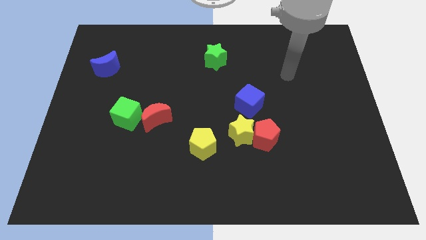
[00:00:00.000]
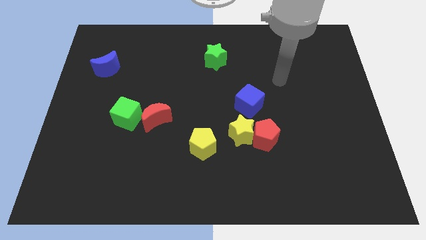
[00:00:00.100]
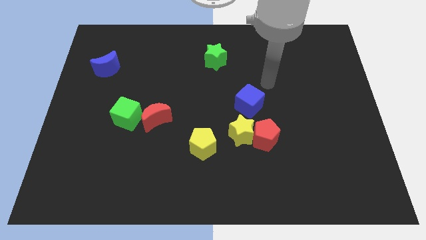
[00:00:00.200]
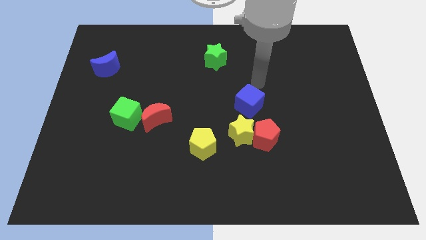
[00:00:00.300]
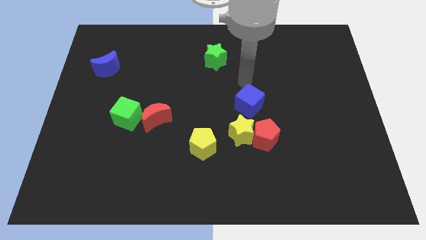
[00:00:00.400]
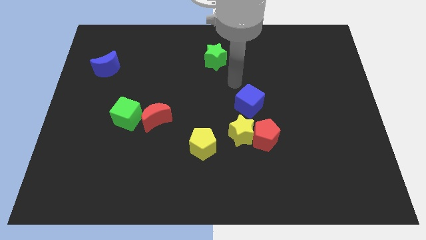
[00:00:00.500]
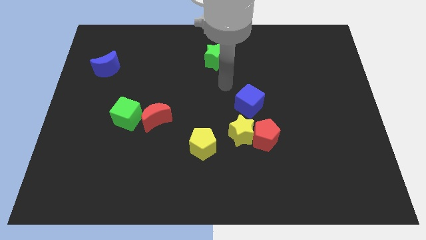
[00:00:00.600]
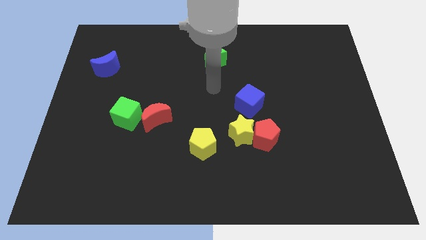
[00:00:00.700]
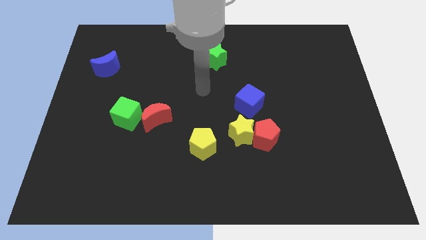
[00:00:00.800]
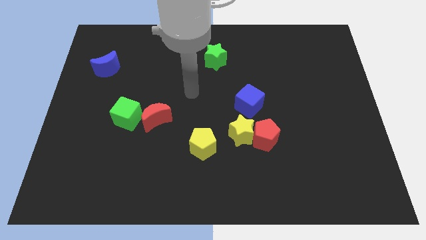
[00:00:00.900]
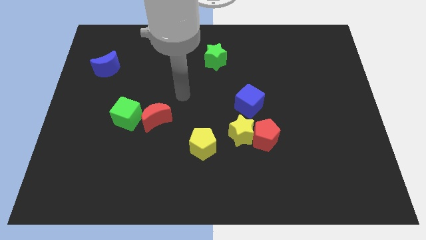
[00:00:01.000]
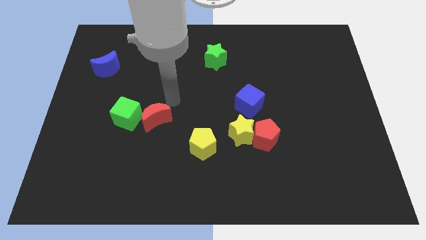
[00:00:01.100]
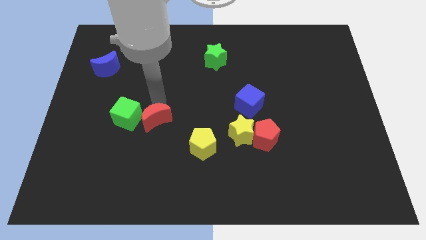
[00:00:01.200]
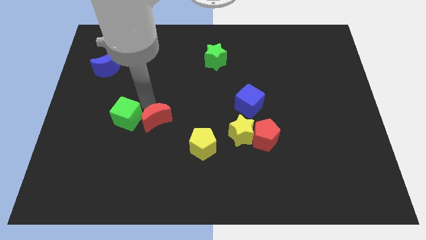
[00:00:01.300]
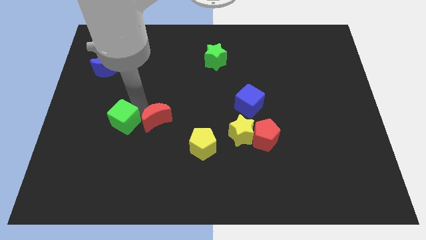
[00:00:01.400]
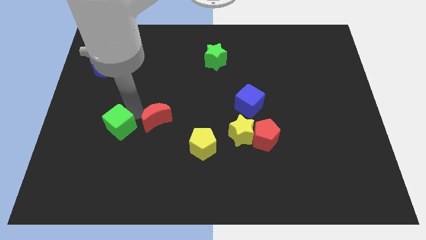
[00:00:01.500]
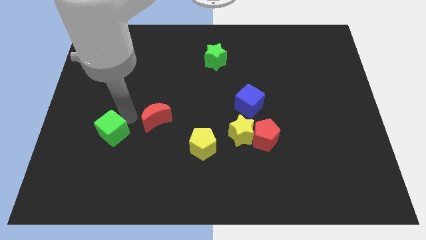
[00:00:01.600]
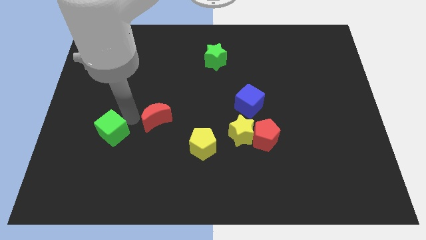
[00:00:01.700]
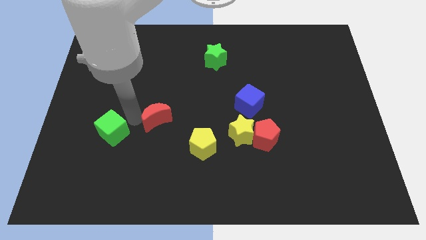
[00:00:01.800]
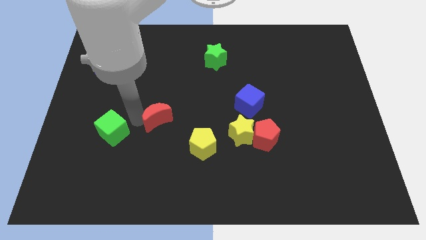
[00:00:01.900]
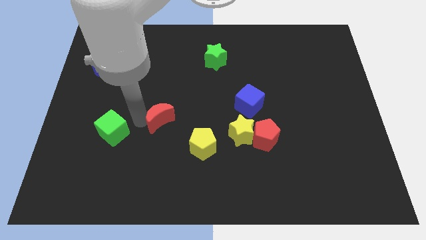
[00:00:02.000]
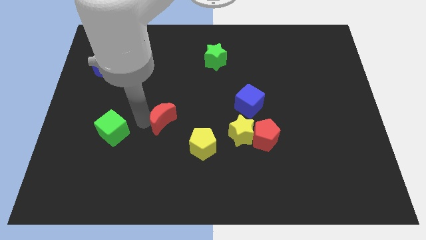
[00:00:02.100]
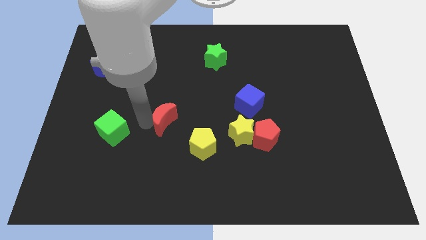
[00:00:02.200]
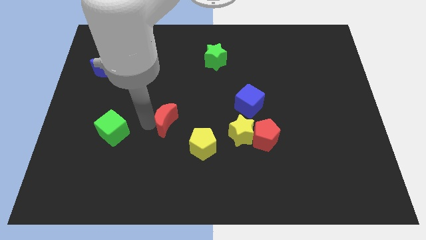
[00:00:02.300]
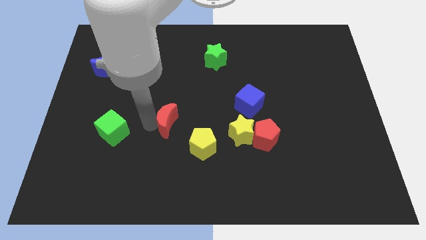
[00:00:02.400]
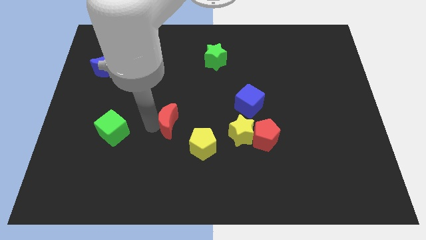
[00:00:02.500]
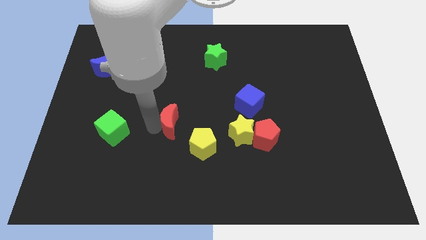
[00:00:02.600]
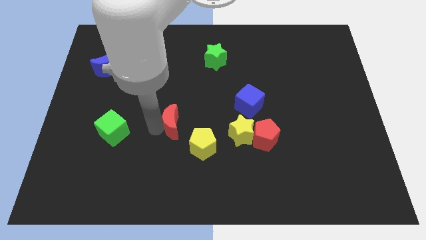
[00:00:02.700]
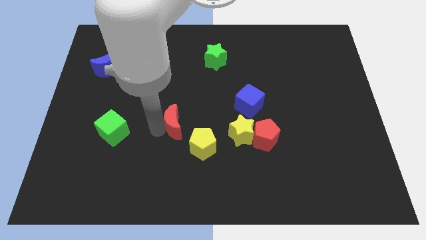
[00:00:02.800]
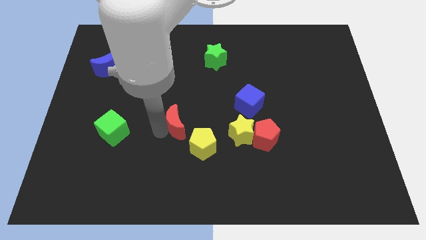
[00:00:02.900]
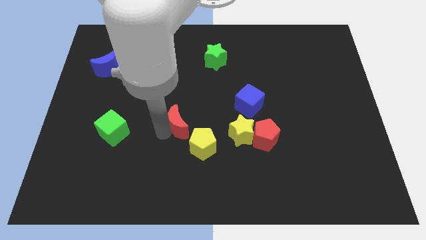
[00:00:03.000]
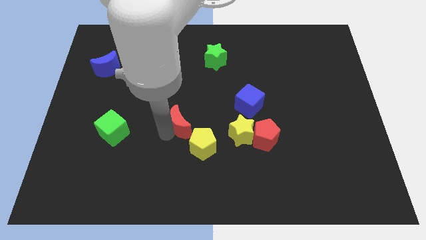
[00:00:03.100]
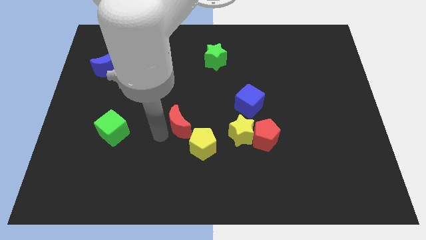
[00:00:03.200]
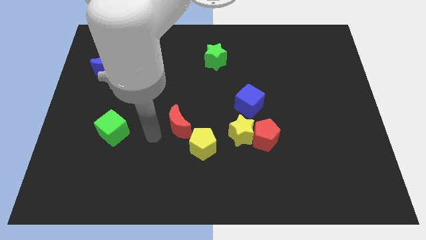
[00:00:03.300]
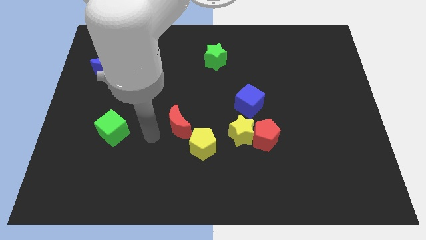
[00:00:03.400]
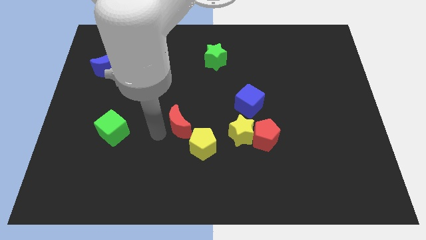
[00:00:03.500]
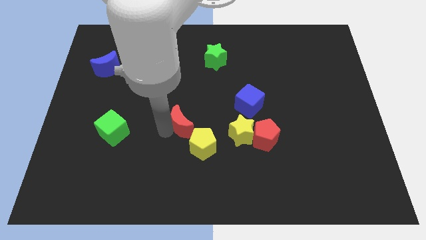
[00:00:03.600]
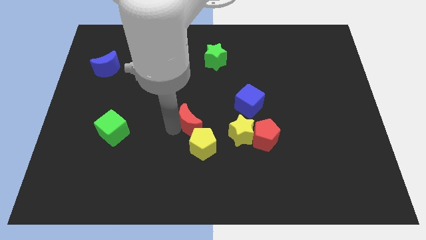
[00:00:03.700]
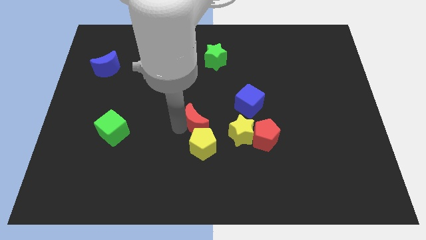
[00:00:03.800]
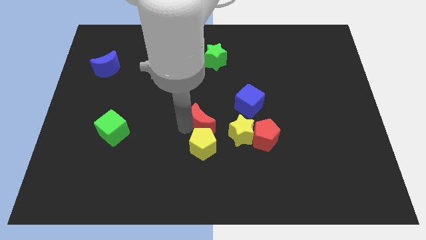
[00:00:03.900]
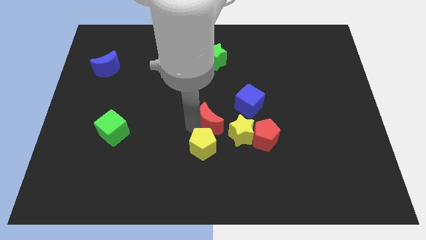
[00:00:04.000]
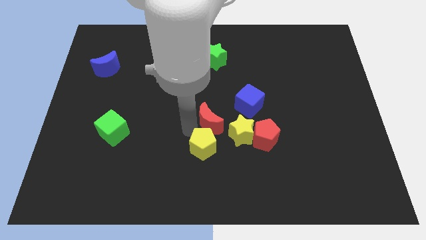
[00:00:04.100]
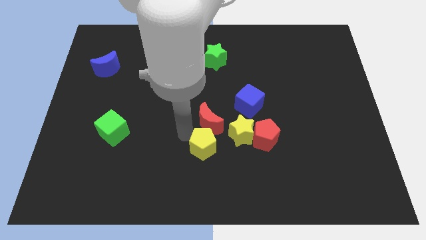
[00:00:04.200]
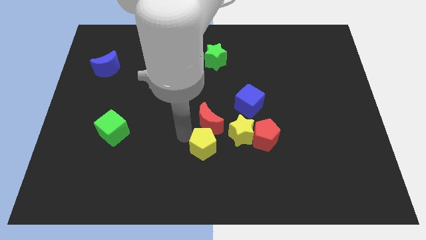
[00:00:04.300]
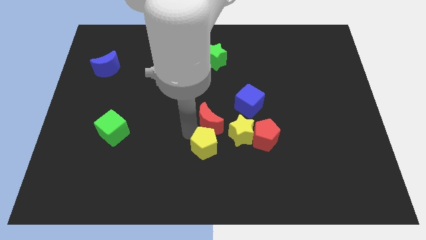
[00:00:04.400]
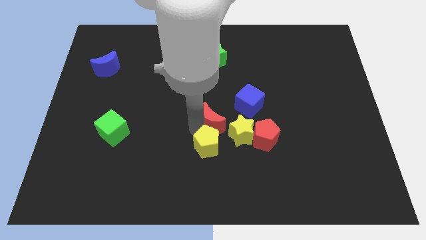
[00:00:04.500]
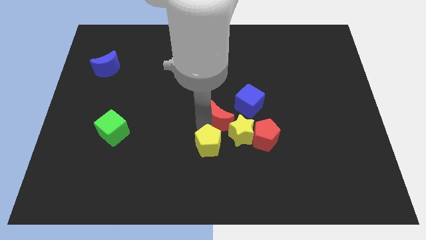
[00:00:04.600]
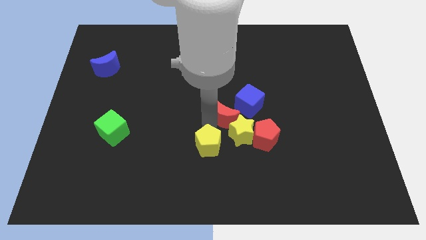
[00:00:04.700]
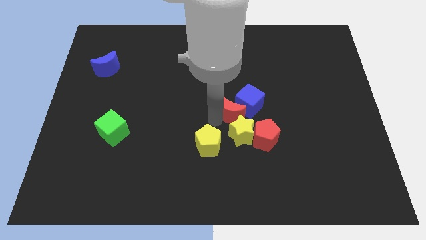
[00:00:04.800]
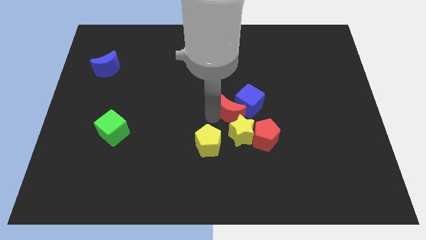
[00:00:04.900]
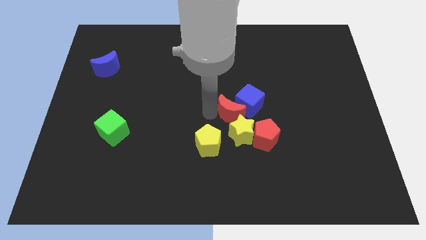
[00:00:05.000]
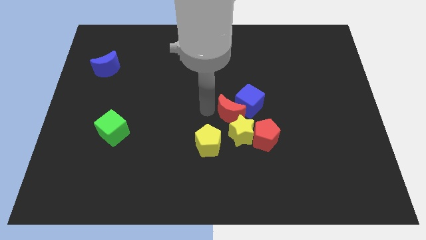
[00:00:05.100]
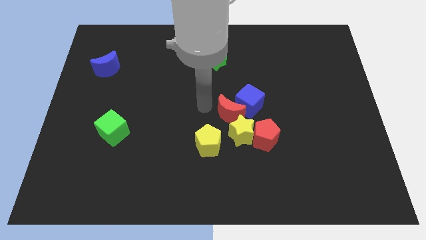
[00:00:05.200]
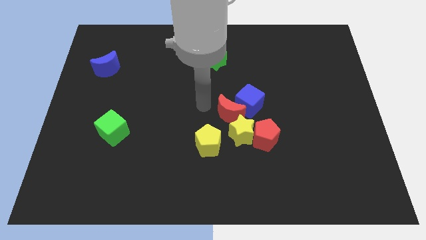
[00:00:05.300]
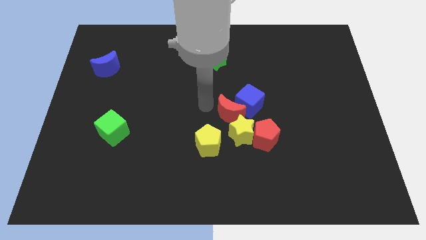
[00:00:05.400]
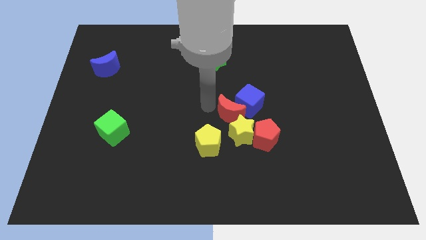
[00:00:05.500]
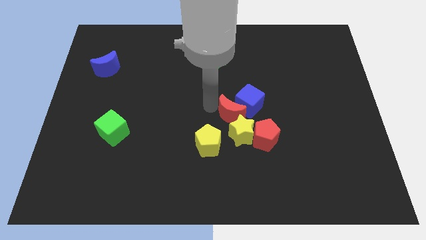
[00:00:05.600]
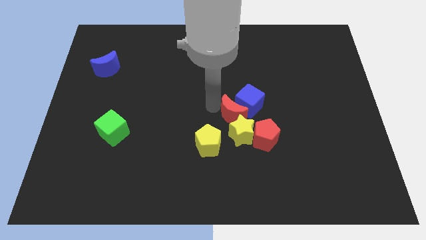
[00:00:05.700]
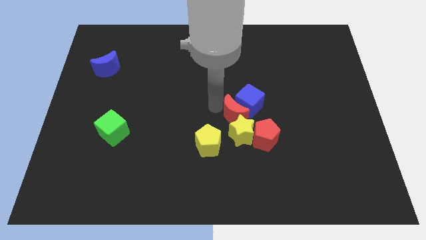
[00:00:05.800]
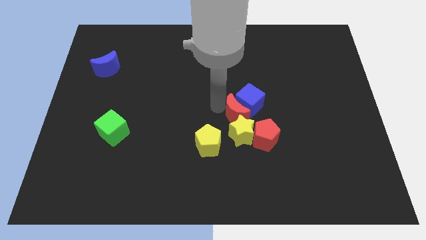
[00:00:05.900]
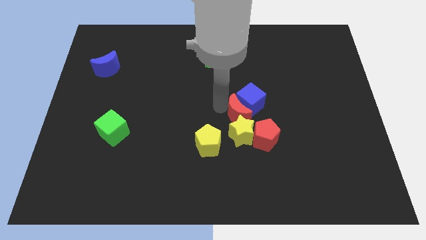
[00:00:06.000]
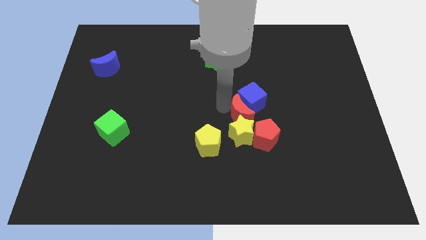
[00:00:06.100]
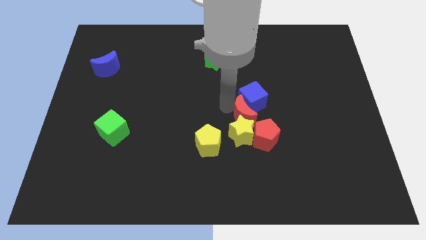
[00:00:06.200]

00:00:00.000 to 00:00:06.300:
move the red moon right

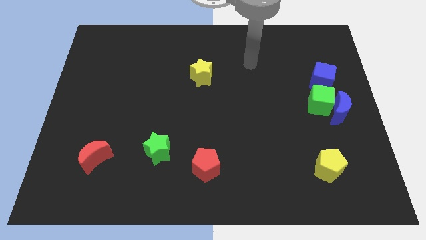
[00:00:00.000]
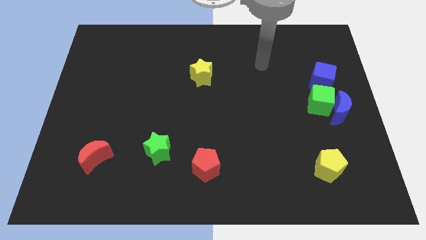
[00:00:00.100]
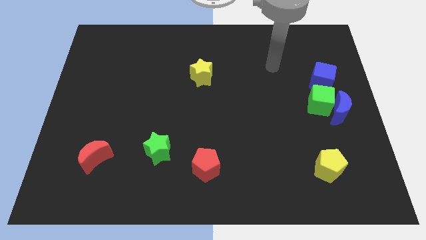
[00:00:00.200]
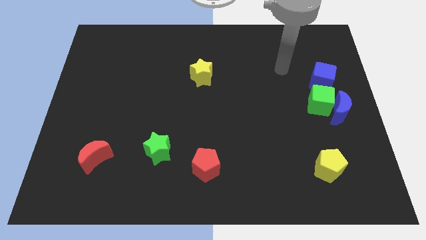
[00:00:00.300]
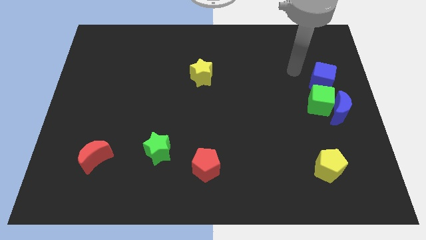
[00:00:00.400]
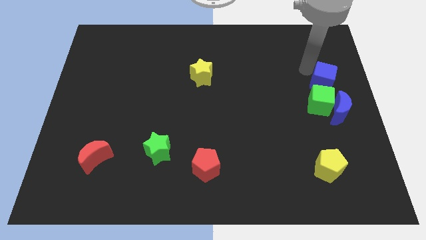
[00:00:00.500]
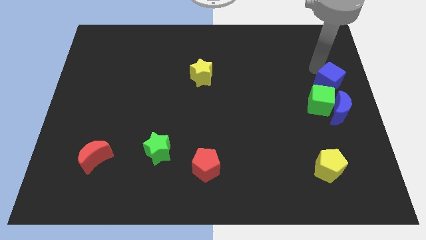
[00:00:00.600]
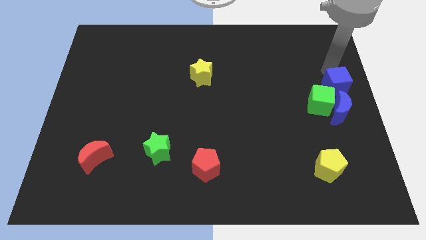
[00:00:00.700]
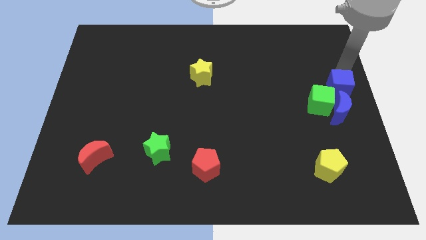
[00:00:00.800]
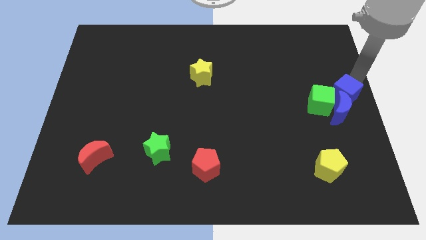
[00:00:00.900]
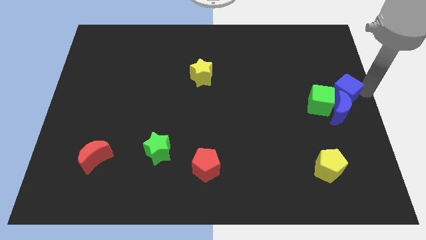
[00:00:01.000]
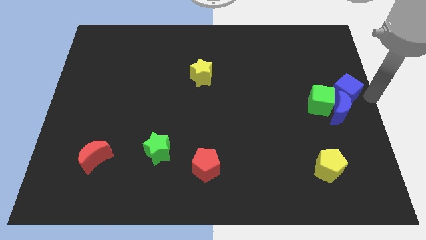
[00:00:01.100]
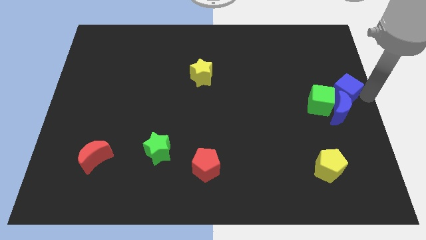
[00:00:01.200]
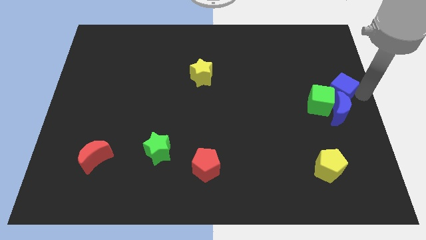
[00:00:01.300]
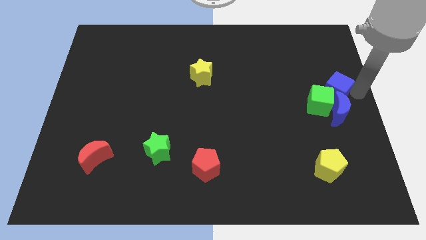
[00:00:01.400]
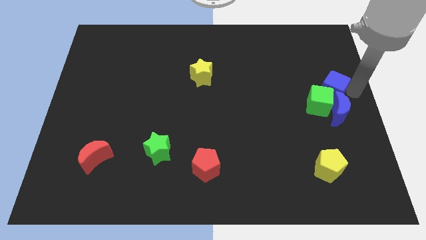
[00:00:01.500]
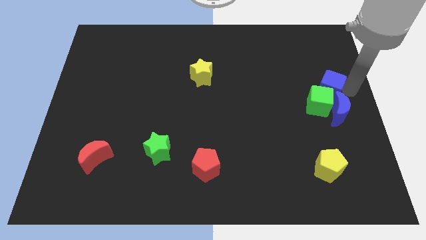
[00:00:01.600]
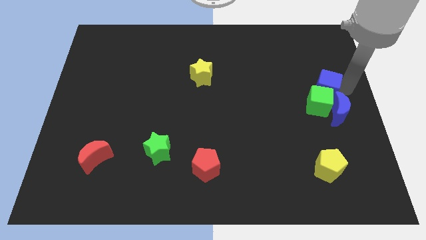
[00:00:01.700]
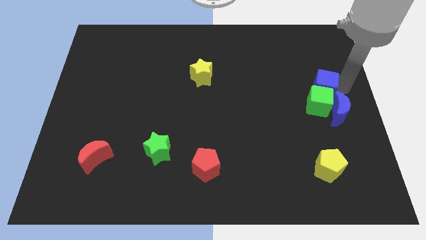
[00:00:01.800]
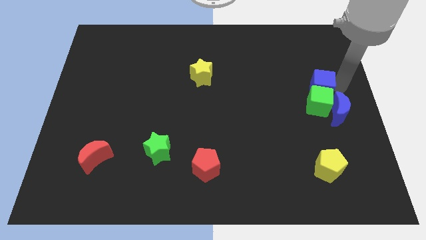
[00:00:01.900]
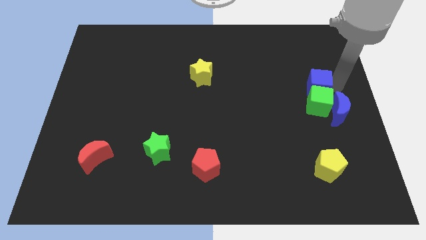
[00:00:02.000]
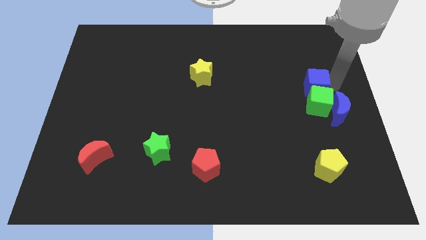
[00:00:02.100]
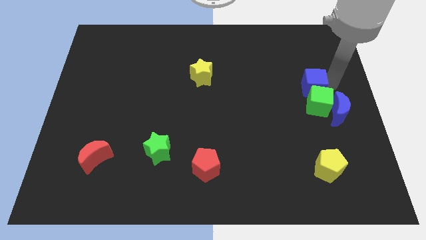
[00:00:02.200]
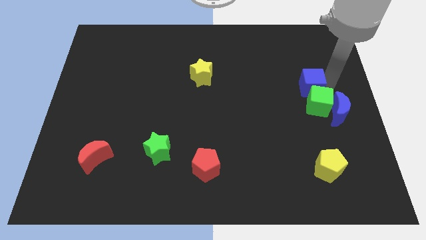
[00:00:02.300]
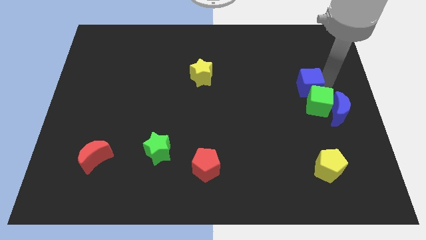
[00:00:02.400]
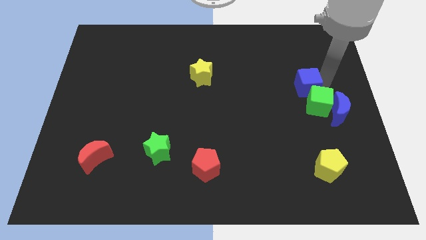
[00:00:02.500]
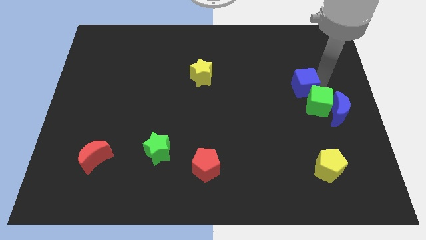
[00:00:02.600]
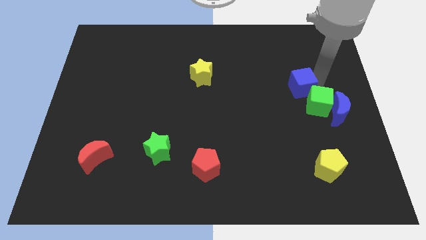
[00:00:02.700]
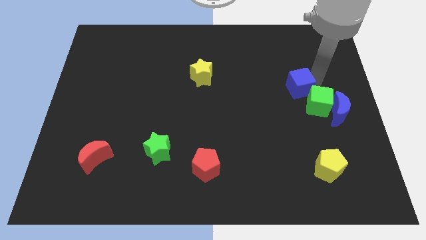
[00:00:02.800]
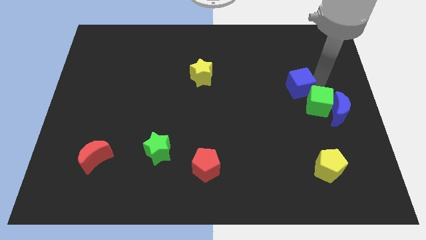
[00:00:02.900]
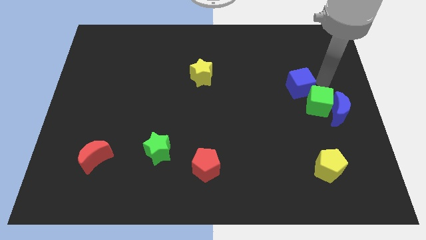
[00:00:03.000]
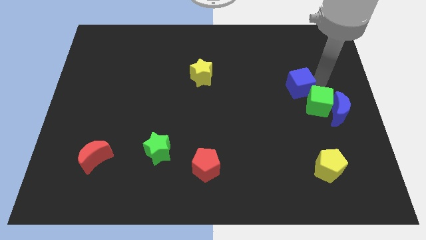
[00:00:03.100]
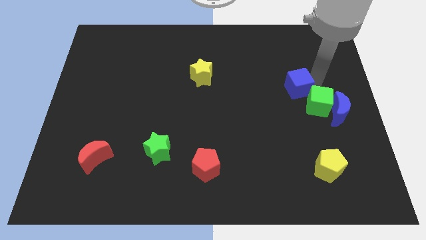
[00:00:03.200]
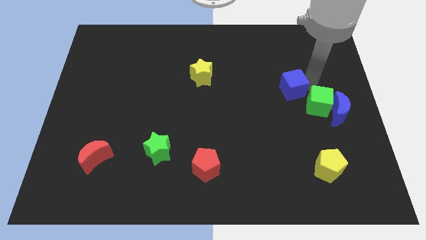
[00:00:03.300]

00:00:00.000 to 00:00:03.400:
move the blue cube left a bit
